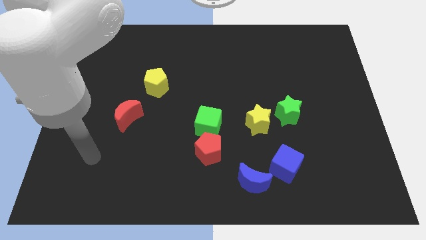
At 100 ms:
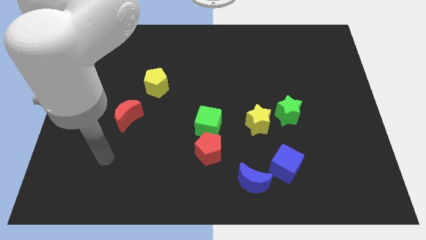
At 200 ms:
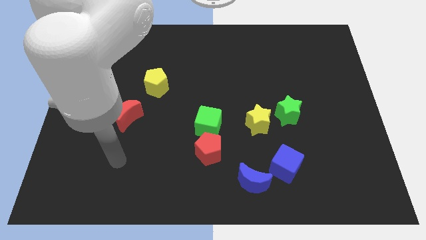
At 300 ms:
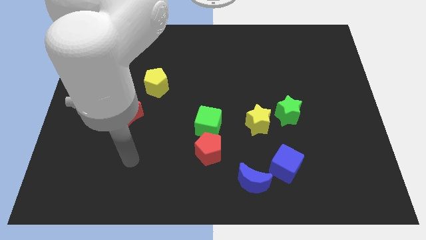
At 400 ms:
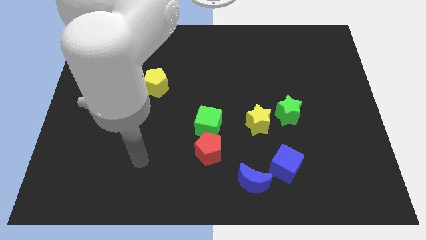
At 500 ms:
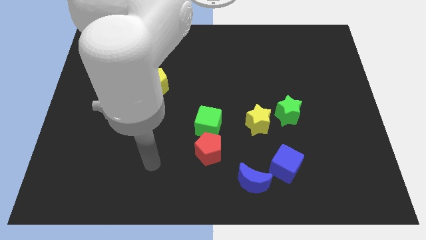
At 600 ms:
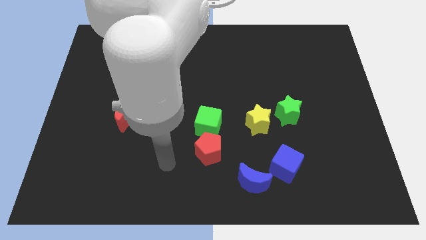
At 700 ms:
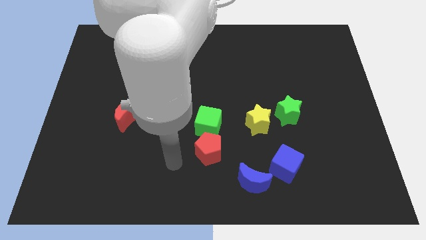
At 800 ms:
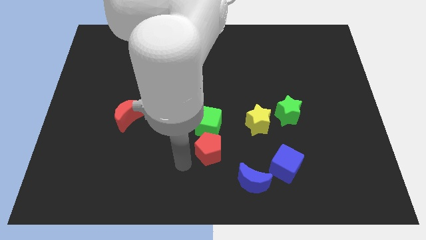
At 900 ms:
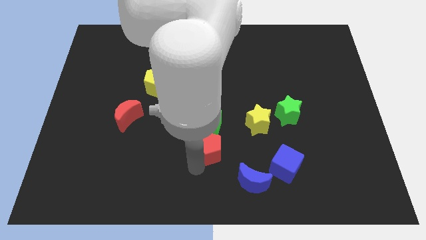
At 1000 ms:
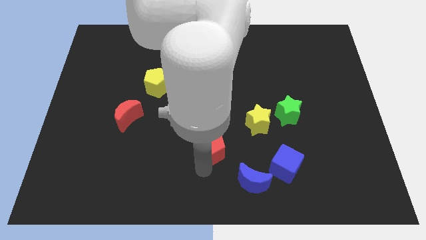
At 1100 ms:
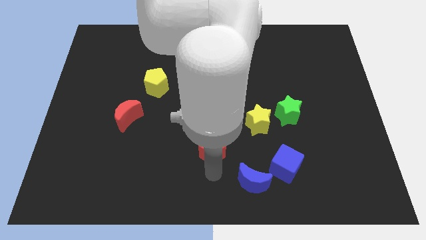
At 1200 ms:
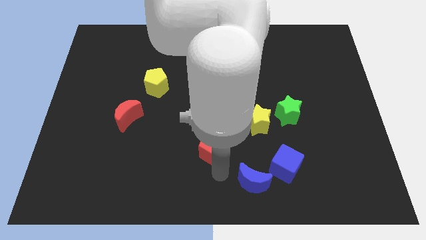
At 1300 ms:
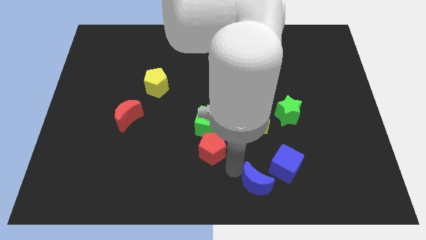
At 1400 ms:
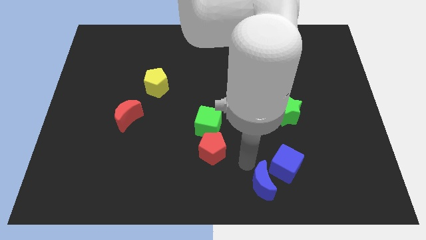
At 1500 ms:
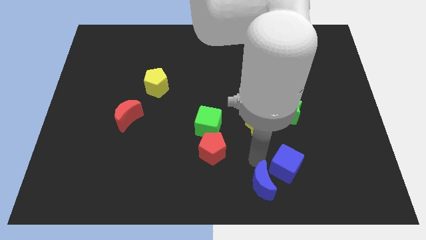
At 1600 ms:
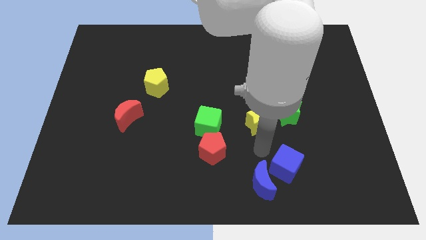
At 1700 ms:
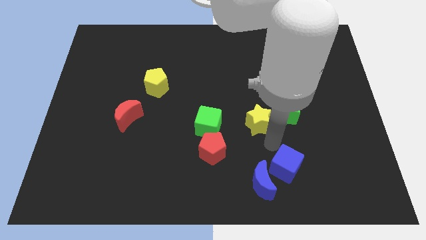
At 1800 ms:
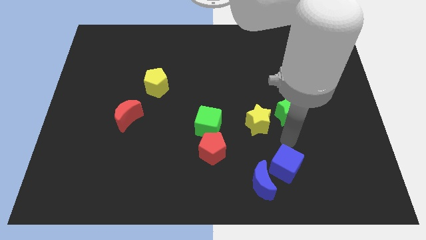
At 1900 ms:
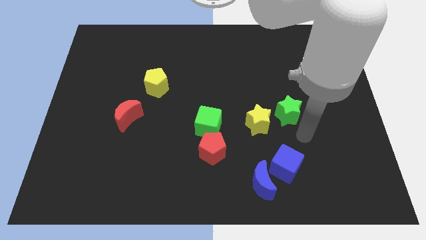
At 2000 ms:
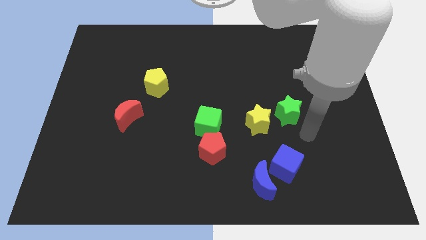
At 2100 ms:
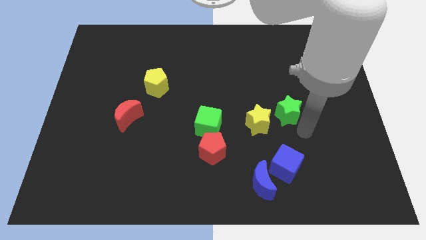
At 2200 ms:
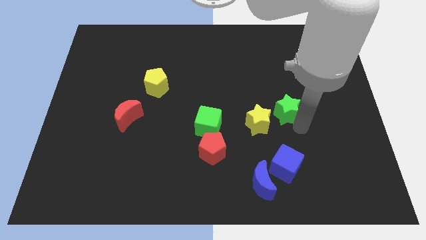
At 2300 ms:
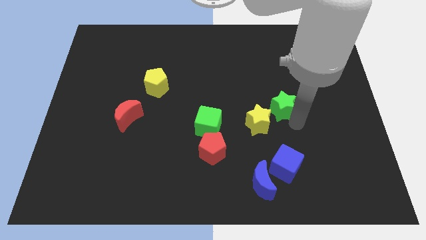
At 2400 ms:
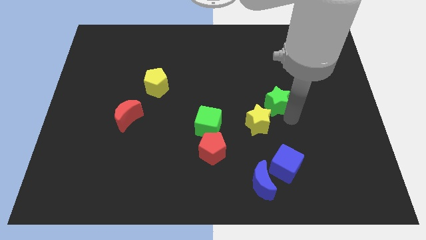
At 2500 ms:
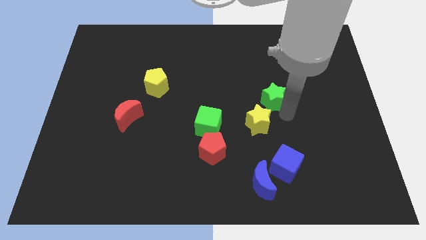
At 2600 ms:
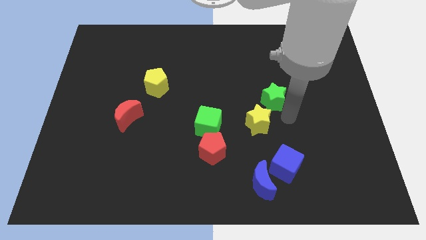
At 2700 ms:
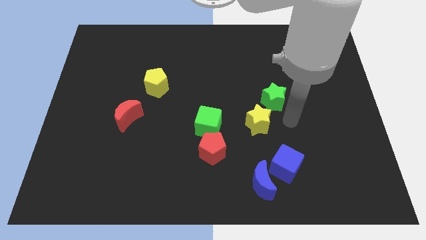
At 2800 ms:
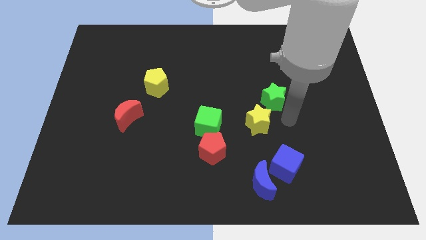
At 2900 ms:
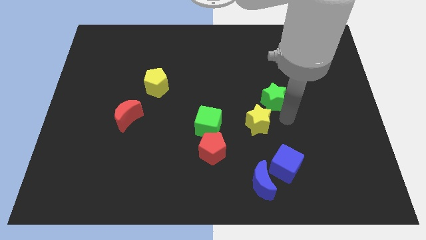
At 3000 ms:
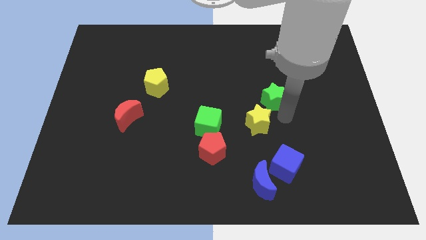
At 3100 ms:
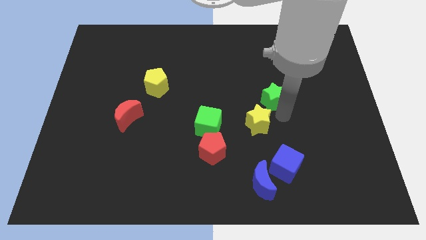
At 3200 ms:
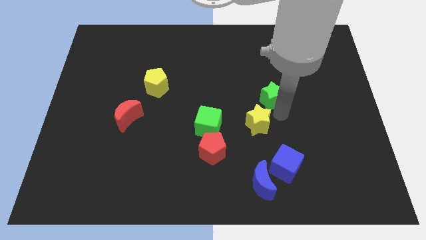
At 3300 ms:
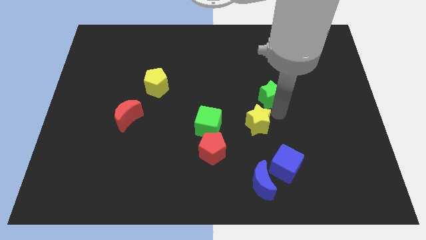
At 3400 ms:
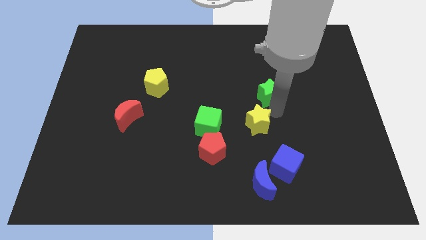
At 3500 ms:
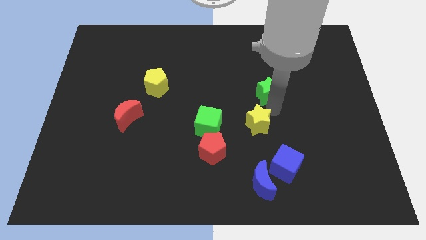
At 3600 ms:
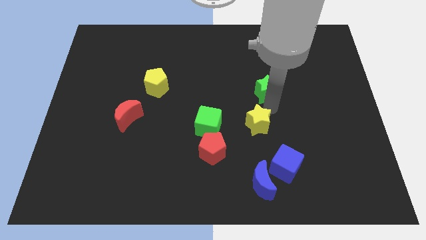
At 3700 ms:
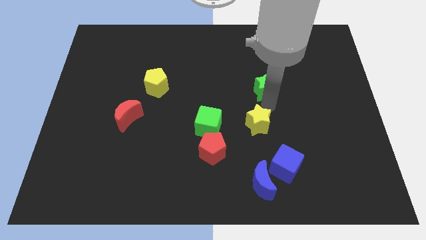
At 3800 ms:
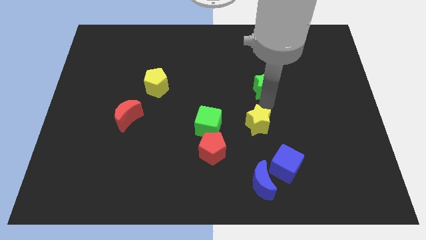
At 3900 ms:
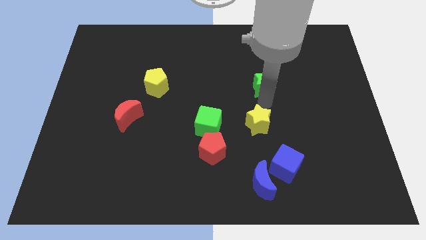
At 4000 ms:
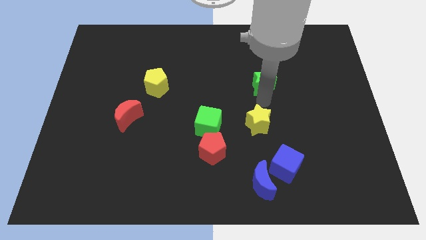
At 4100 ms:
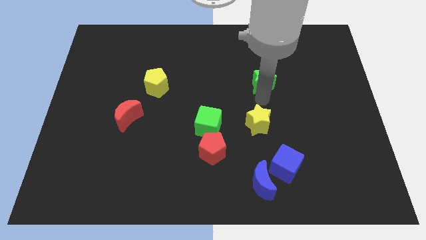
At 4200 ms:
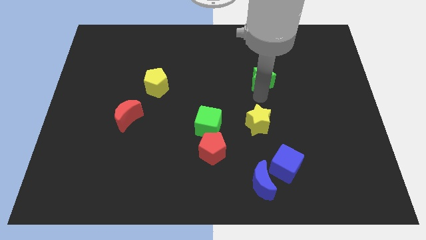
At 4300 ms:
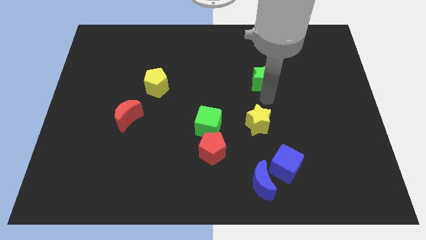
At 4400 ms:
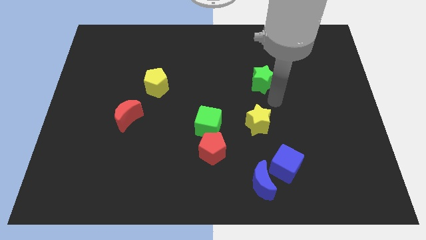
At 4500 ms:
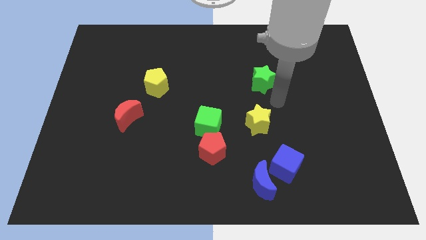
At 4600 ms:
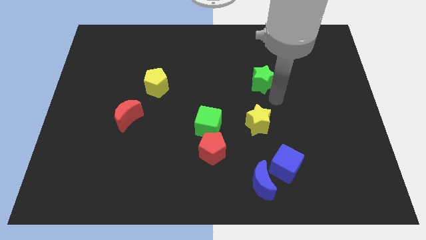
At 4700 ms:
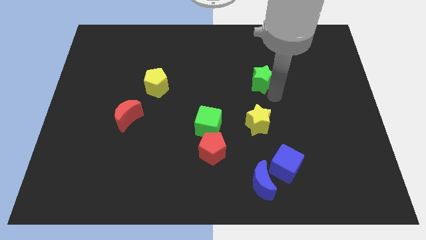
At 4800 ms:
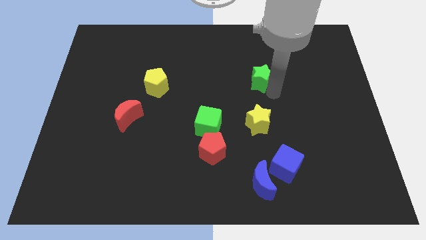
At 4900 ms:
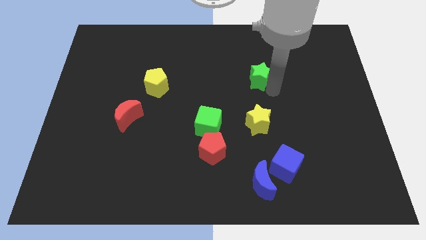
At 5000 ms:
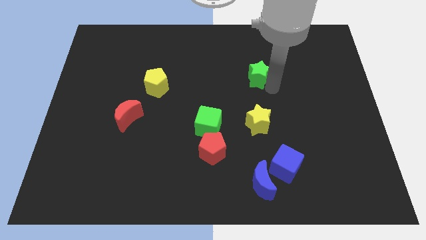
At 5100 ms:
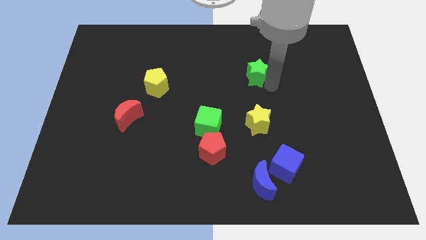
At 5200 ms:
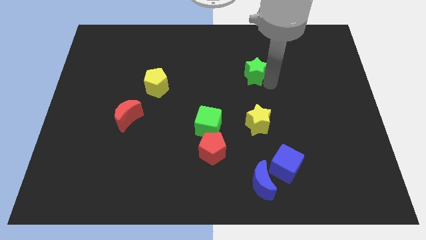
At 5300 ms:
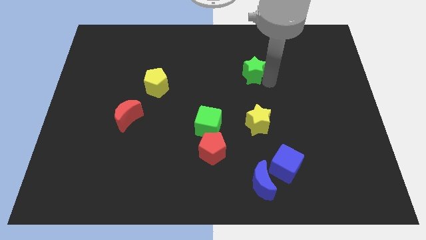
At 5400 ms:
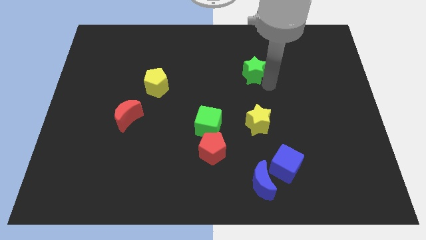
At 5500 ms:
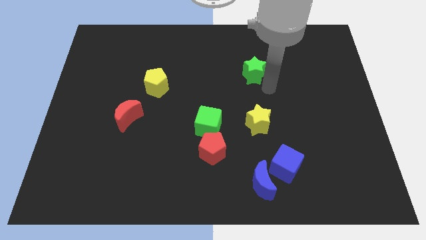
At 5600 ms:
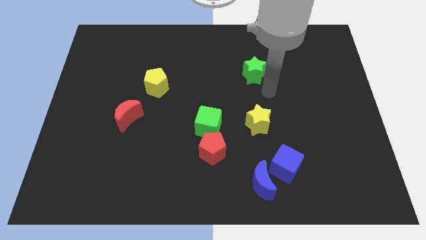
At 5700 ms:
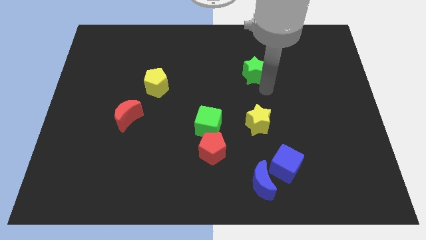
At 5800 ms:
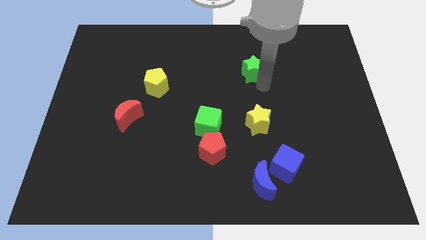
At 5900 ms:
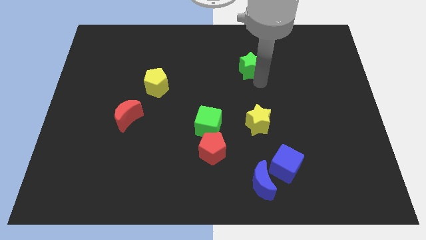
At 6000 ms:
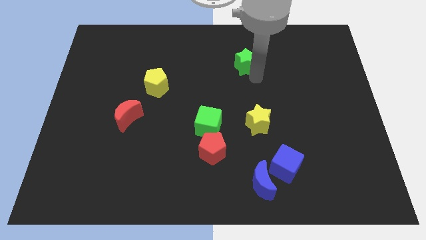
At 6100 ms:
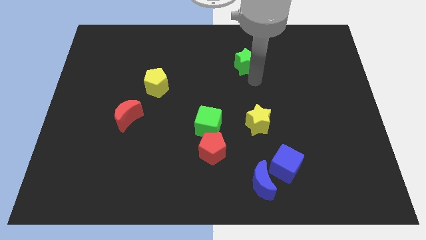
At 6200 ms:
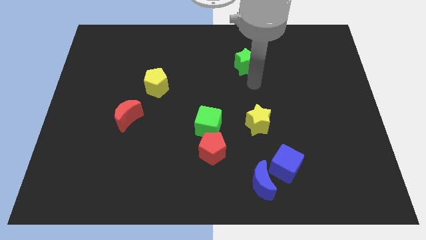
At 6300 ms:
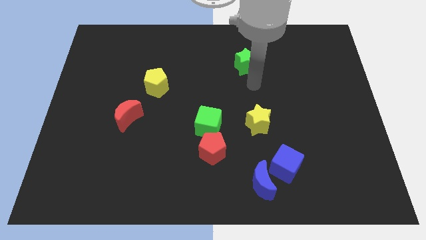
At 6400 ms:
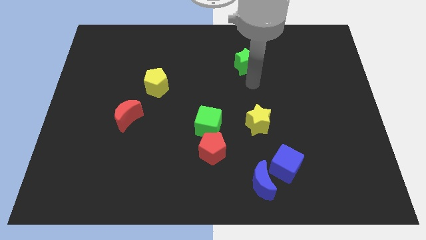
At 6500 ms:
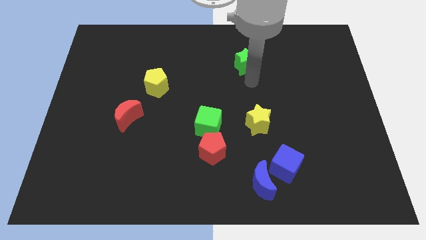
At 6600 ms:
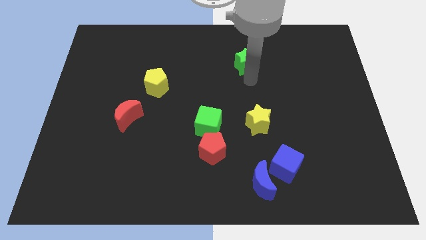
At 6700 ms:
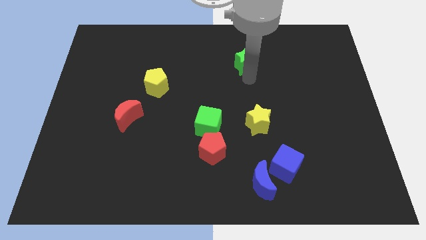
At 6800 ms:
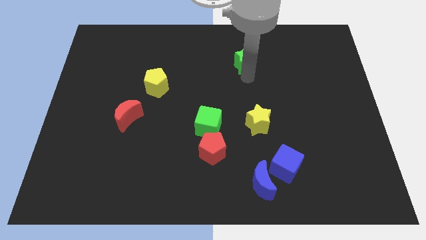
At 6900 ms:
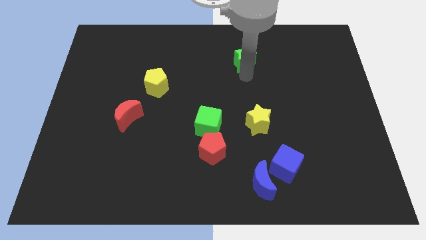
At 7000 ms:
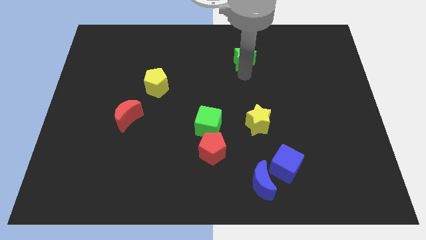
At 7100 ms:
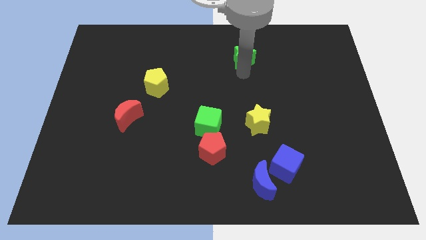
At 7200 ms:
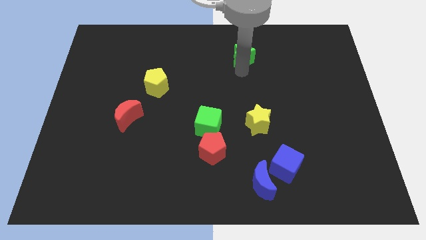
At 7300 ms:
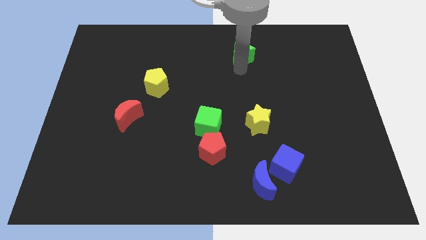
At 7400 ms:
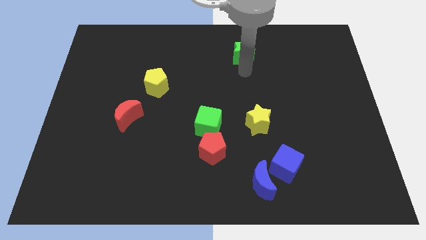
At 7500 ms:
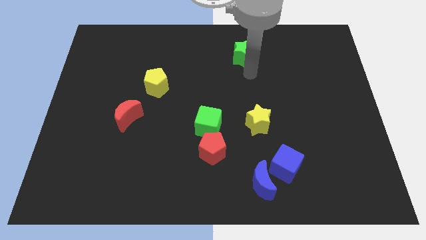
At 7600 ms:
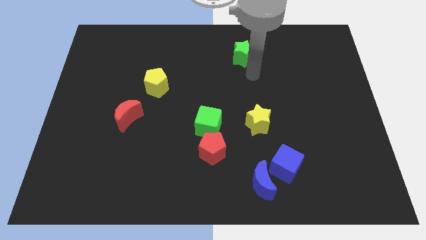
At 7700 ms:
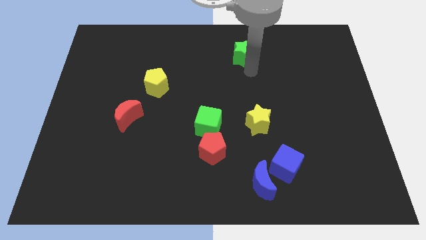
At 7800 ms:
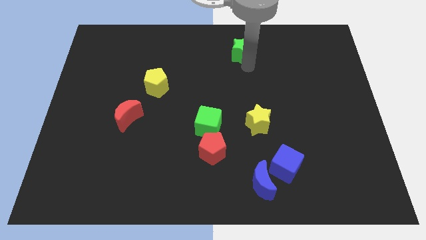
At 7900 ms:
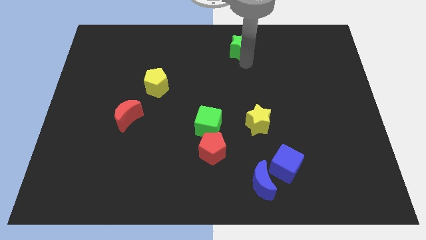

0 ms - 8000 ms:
put the green star to the top side
